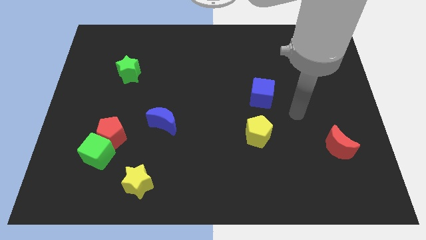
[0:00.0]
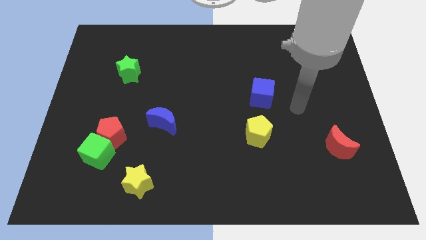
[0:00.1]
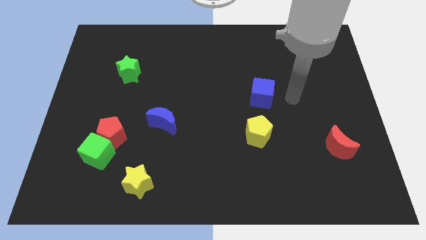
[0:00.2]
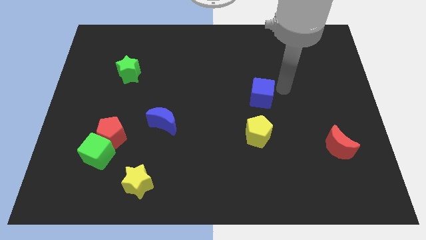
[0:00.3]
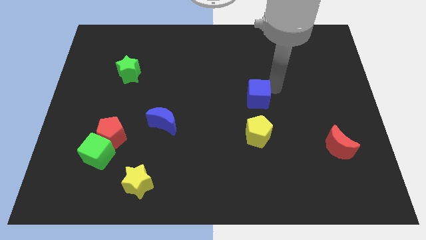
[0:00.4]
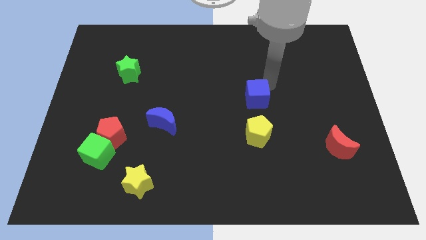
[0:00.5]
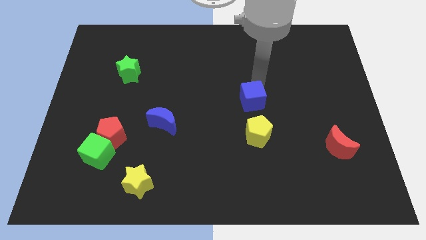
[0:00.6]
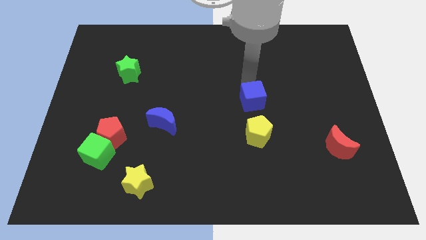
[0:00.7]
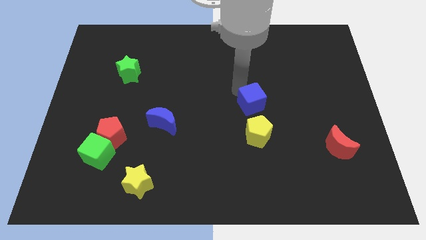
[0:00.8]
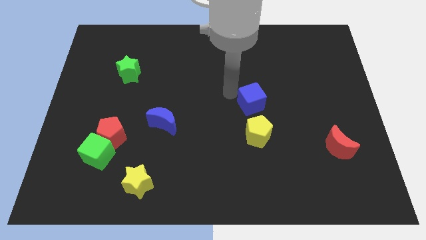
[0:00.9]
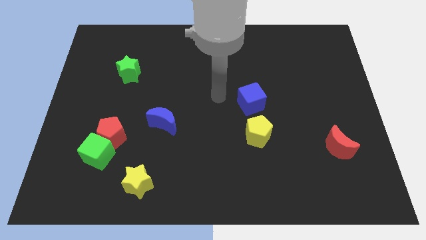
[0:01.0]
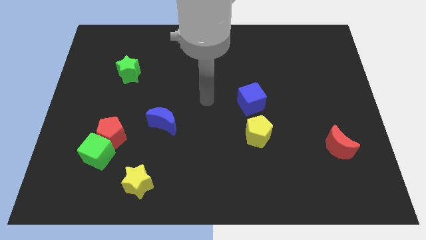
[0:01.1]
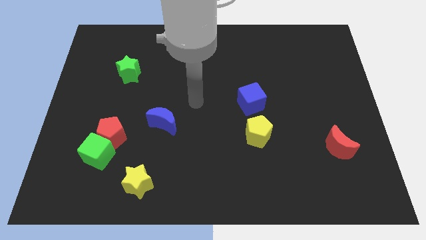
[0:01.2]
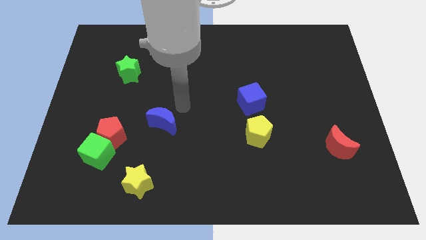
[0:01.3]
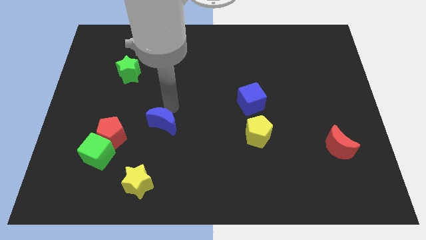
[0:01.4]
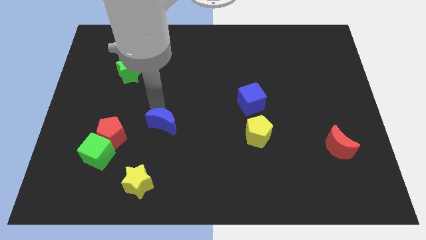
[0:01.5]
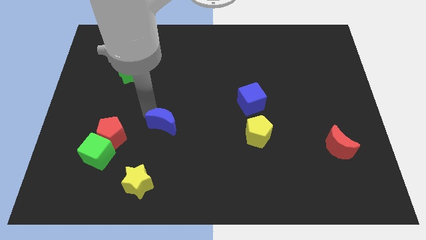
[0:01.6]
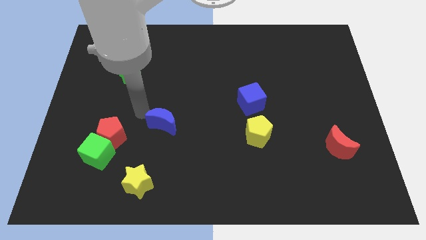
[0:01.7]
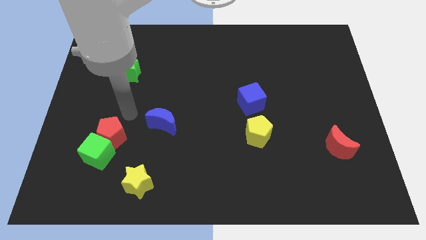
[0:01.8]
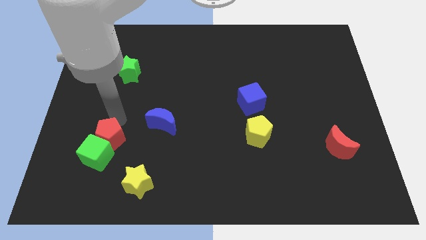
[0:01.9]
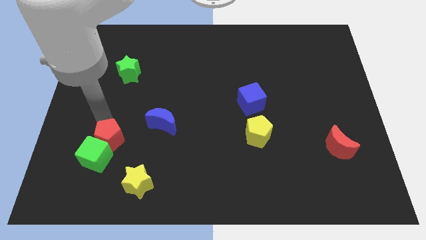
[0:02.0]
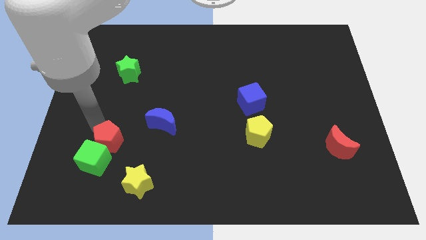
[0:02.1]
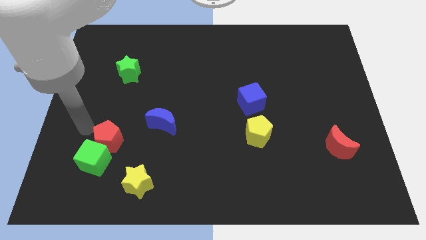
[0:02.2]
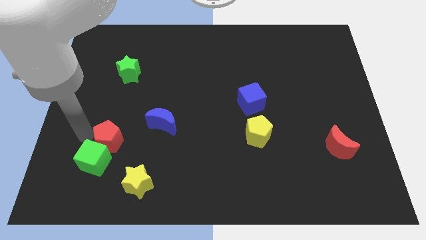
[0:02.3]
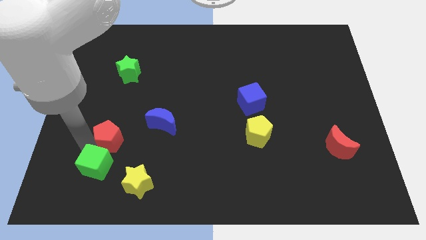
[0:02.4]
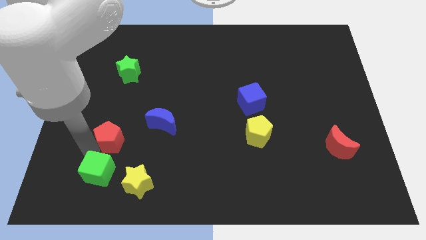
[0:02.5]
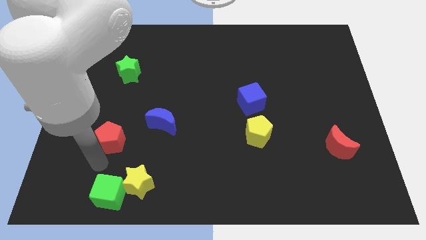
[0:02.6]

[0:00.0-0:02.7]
separate the red pentagon from the green cube

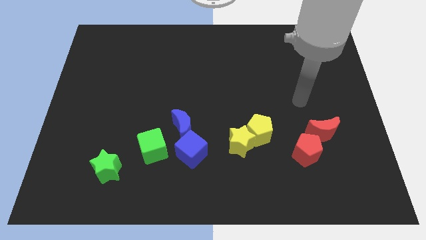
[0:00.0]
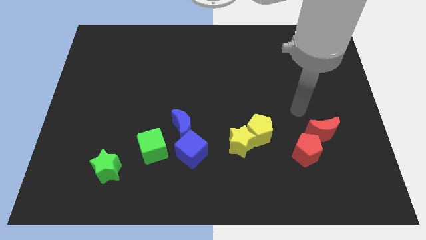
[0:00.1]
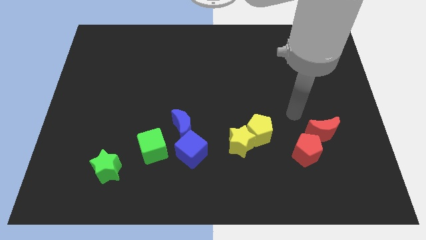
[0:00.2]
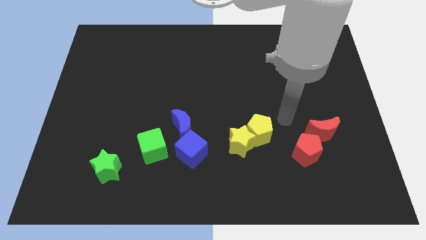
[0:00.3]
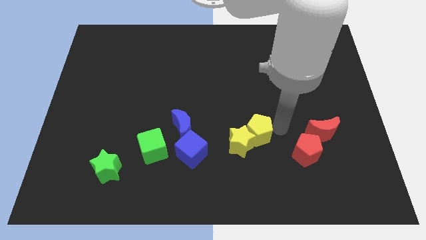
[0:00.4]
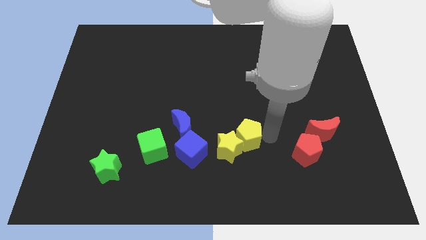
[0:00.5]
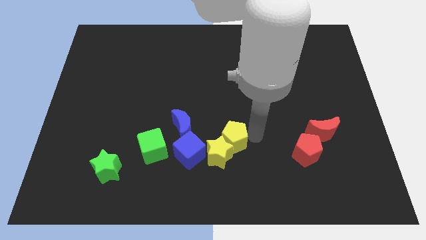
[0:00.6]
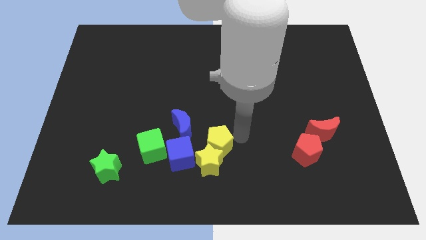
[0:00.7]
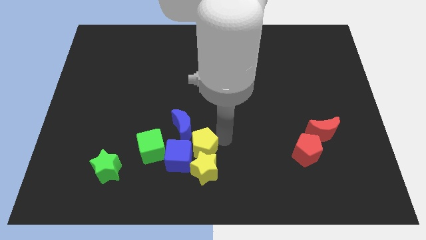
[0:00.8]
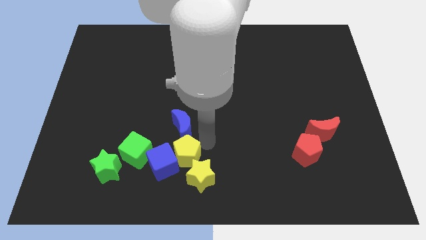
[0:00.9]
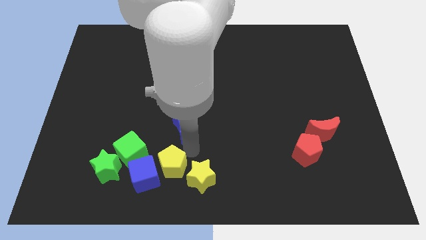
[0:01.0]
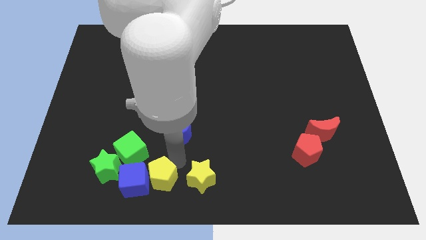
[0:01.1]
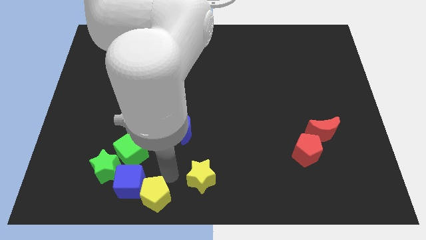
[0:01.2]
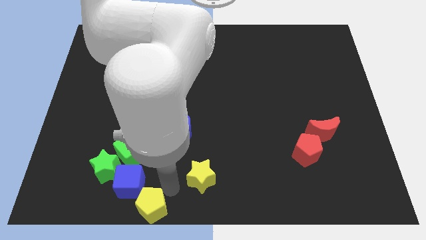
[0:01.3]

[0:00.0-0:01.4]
separate the yellow star from the yellow pentagon

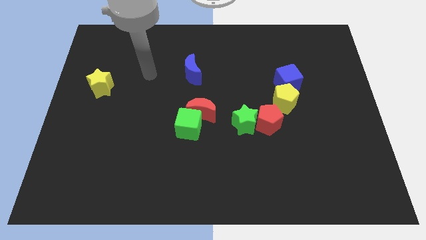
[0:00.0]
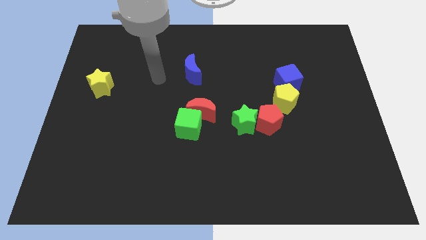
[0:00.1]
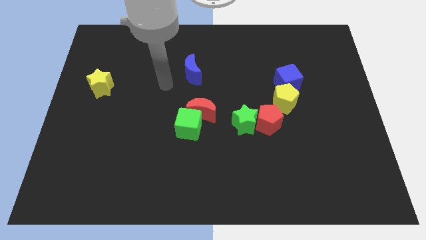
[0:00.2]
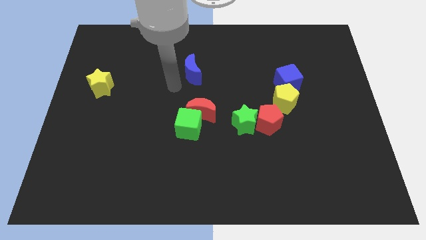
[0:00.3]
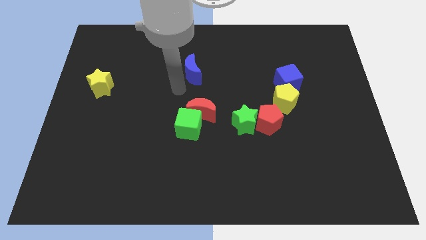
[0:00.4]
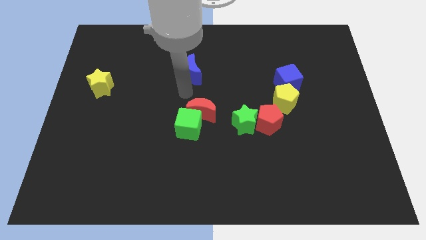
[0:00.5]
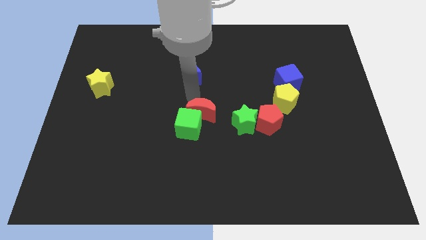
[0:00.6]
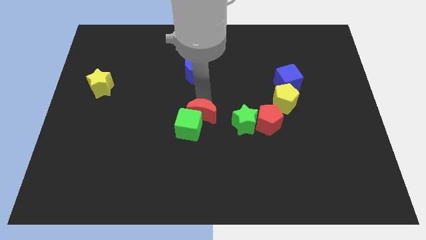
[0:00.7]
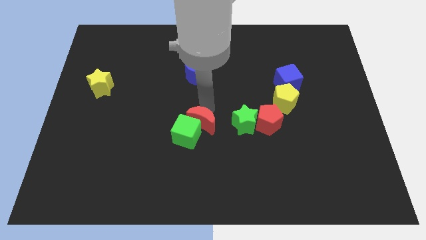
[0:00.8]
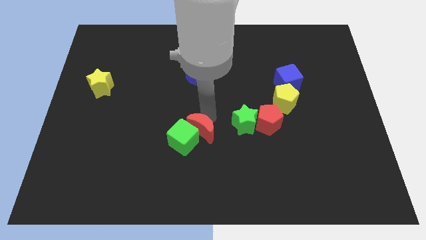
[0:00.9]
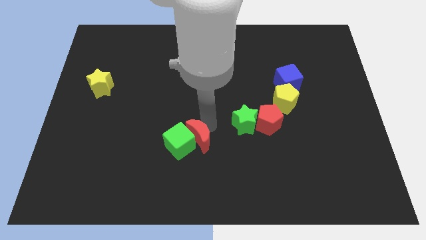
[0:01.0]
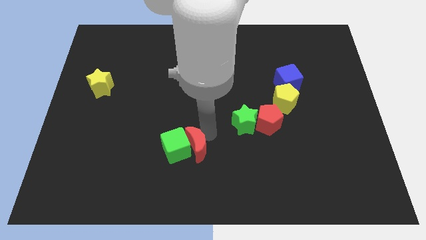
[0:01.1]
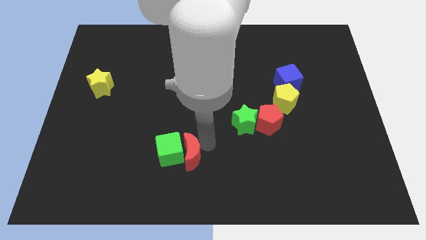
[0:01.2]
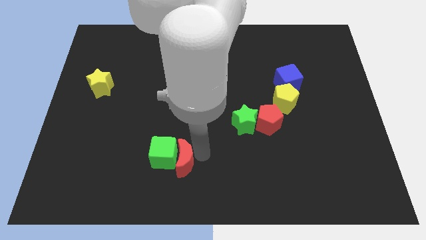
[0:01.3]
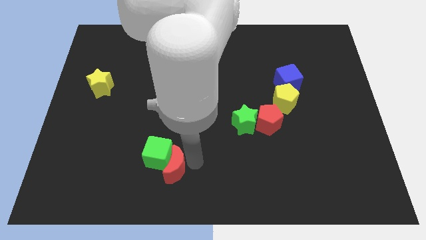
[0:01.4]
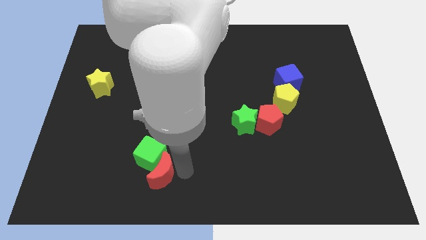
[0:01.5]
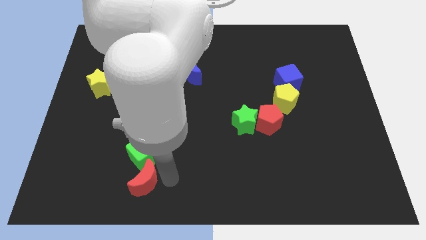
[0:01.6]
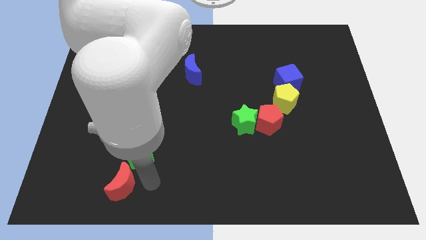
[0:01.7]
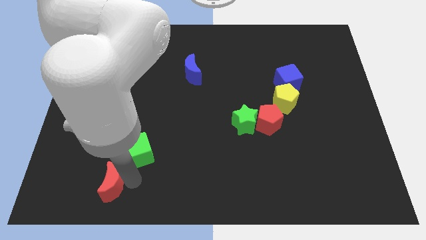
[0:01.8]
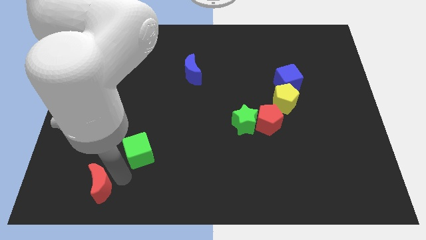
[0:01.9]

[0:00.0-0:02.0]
move the green cube away from the red moon

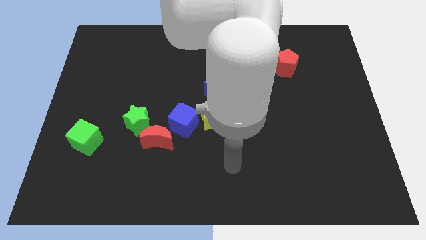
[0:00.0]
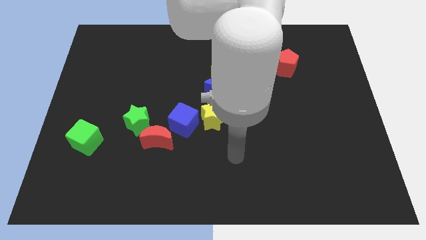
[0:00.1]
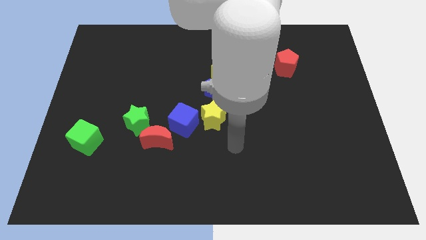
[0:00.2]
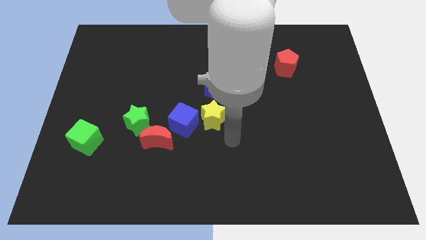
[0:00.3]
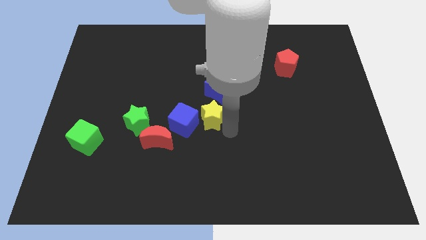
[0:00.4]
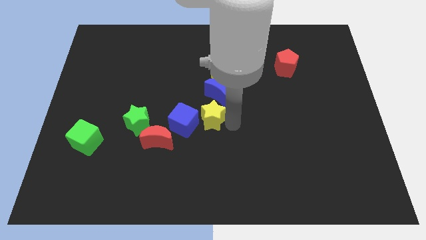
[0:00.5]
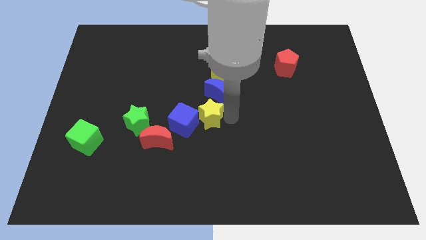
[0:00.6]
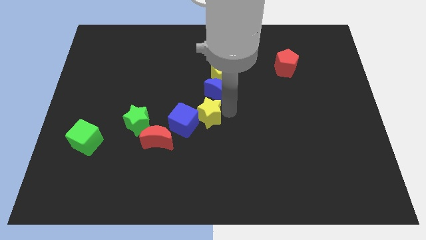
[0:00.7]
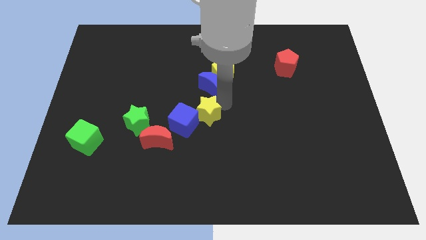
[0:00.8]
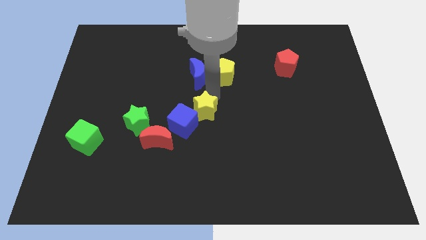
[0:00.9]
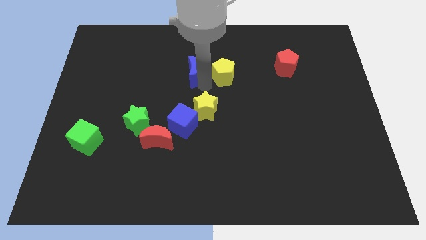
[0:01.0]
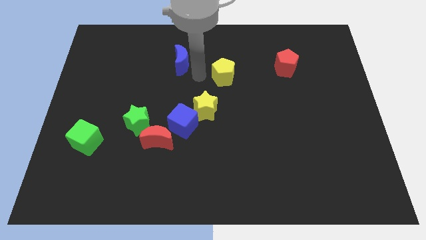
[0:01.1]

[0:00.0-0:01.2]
move the yellow pentagon away from the blue moon

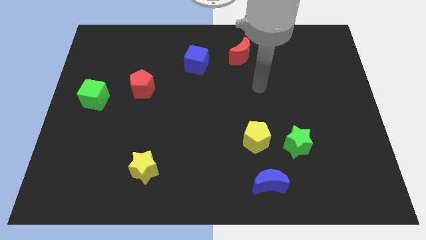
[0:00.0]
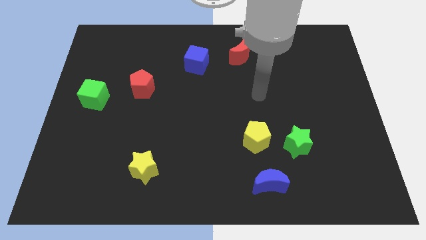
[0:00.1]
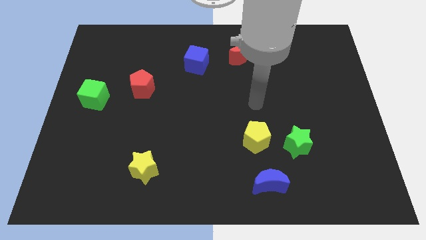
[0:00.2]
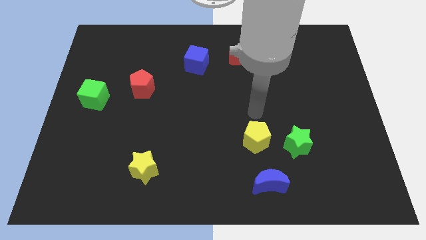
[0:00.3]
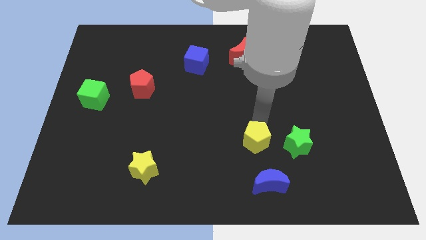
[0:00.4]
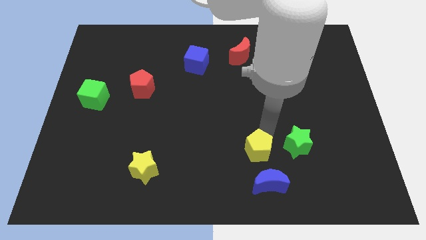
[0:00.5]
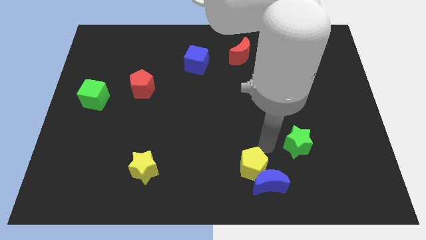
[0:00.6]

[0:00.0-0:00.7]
move the green star away from the yellow pentagon

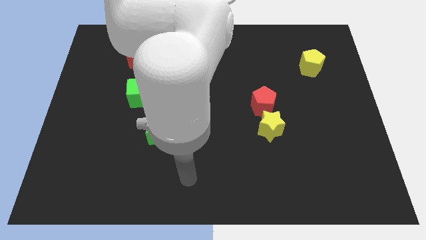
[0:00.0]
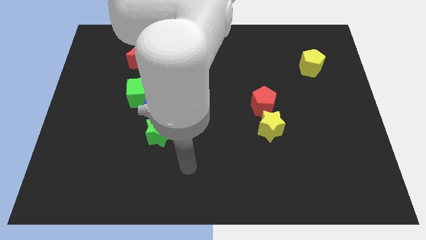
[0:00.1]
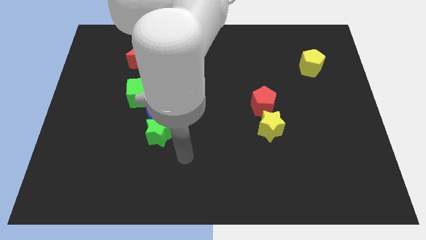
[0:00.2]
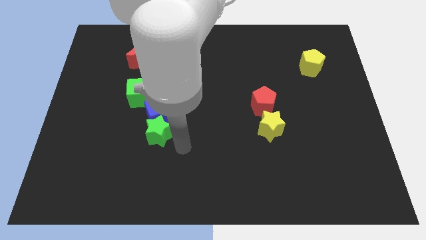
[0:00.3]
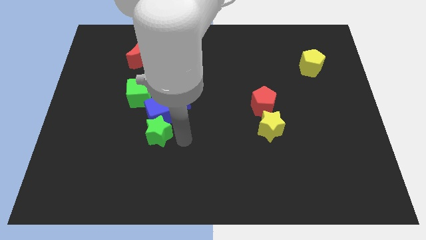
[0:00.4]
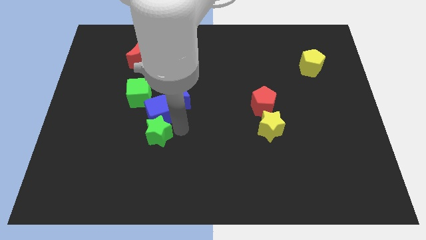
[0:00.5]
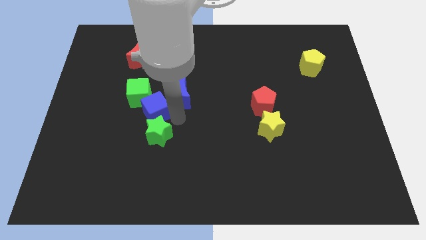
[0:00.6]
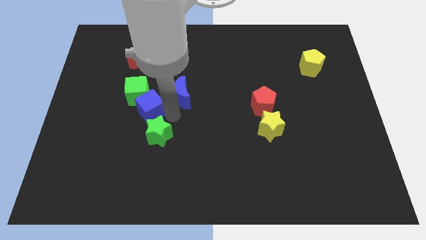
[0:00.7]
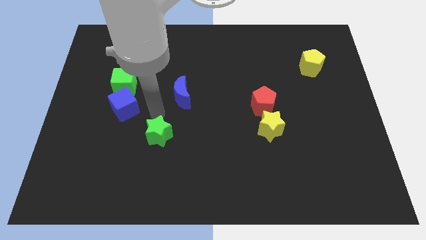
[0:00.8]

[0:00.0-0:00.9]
move the green star away from the blue cube

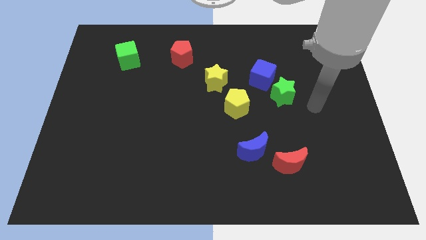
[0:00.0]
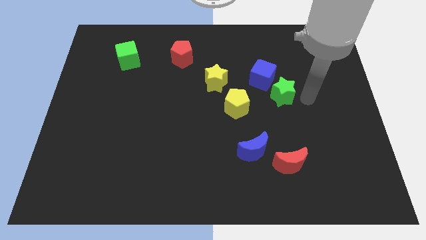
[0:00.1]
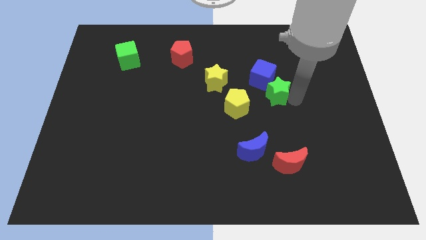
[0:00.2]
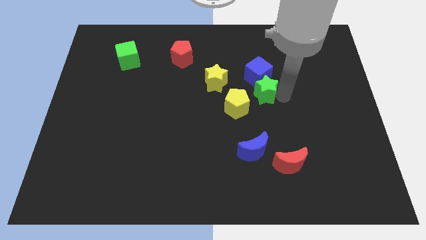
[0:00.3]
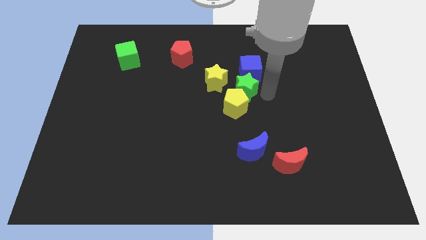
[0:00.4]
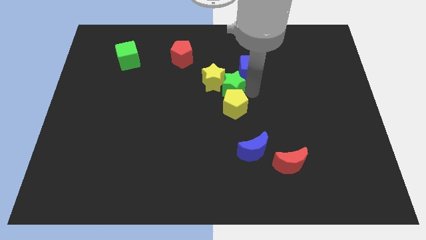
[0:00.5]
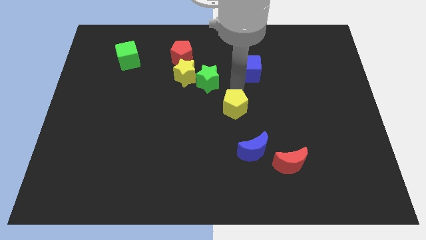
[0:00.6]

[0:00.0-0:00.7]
move the blue cube away from the green star
